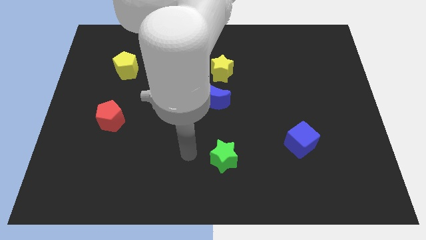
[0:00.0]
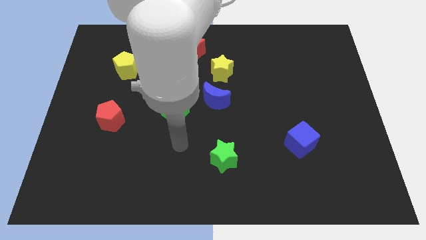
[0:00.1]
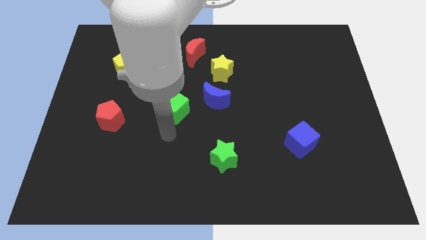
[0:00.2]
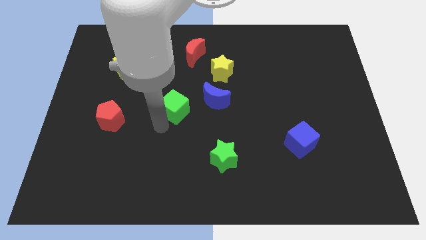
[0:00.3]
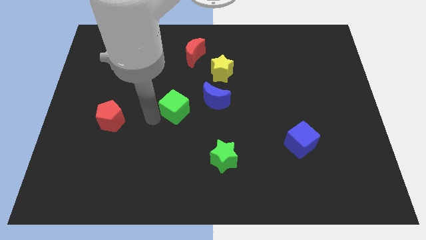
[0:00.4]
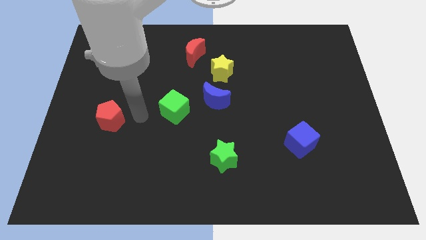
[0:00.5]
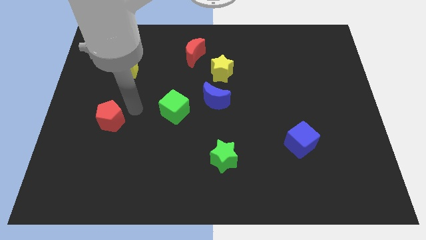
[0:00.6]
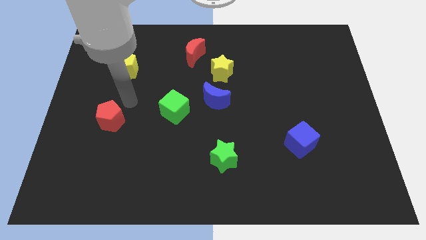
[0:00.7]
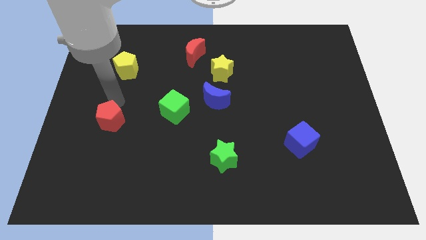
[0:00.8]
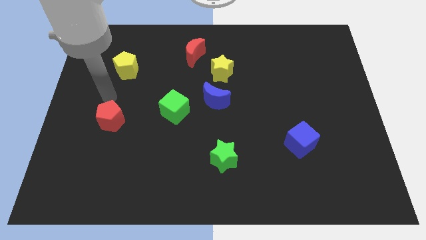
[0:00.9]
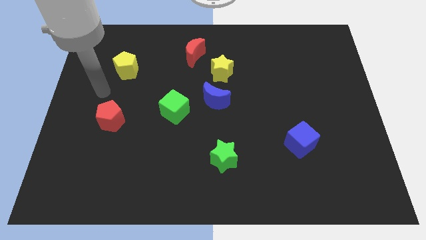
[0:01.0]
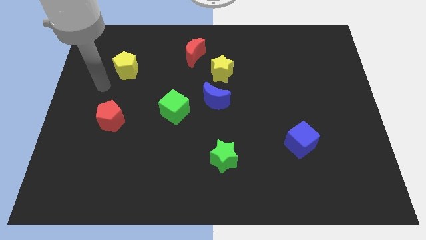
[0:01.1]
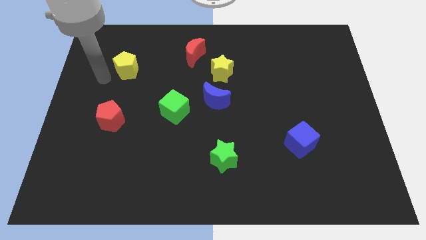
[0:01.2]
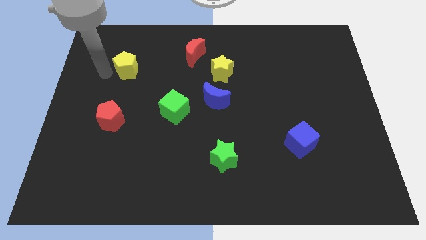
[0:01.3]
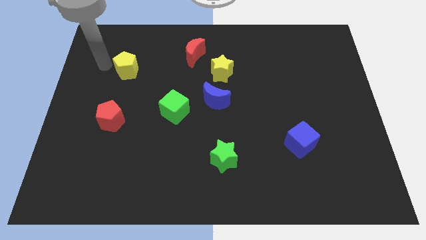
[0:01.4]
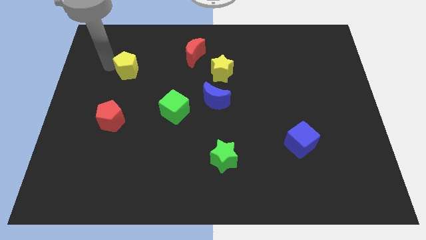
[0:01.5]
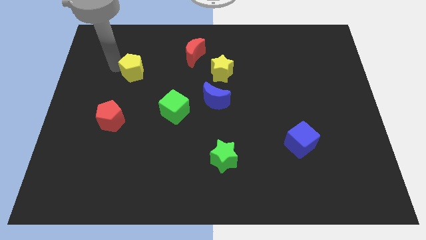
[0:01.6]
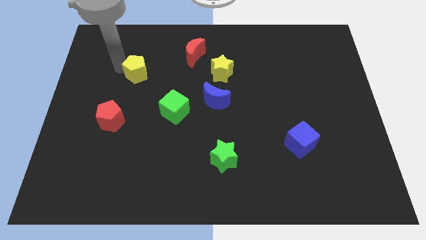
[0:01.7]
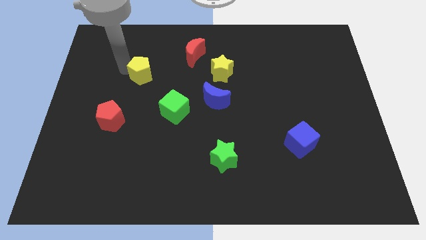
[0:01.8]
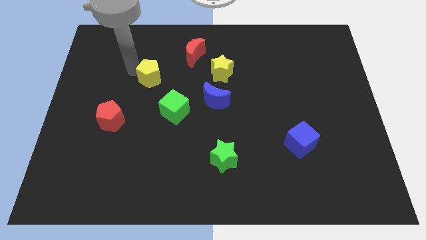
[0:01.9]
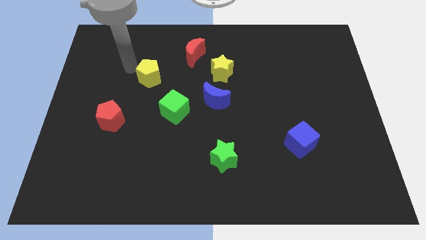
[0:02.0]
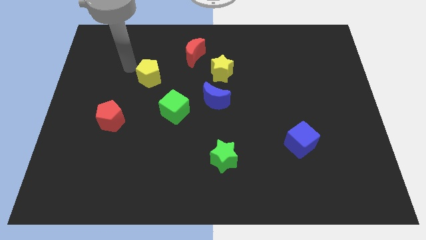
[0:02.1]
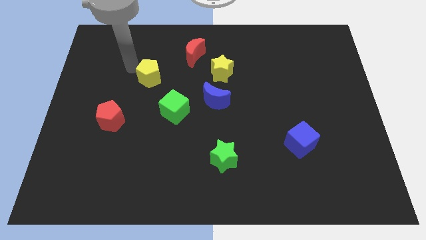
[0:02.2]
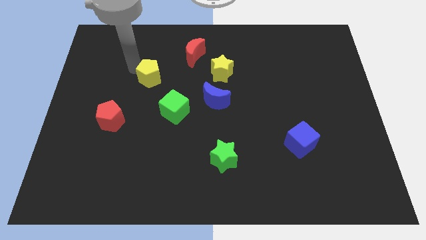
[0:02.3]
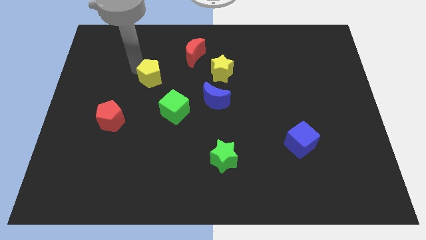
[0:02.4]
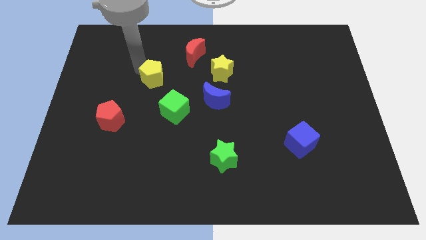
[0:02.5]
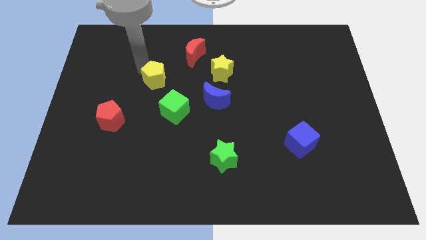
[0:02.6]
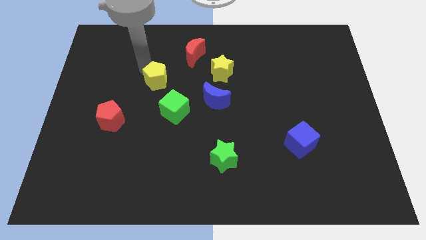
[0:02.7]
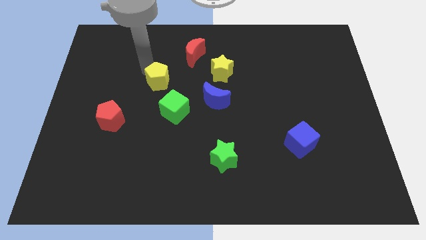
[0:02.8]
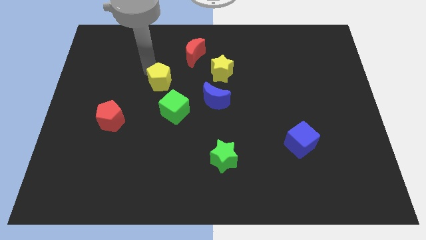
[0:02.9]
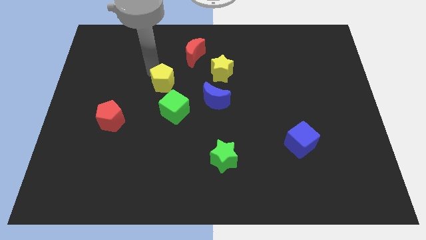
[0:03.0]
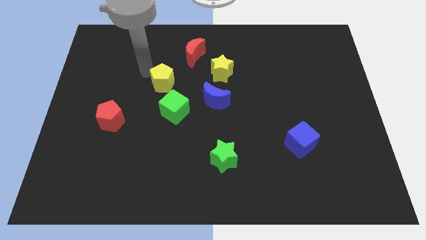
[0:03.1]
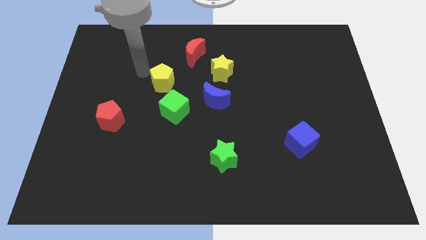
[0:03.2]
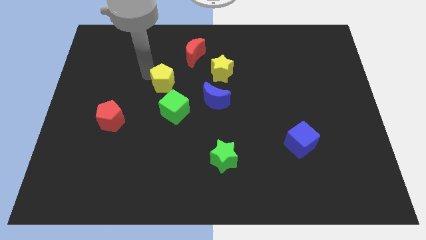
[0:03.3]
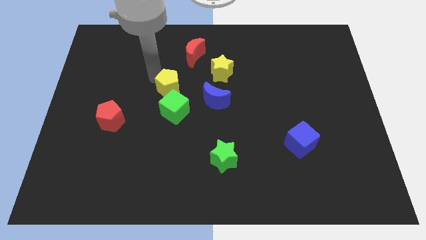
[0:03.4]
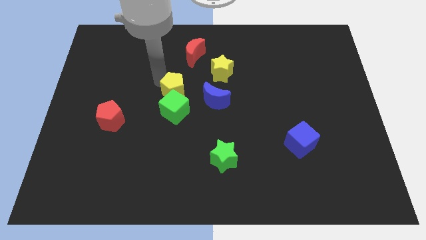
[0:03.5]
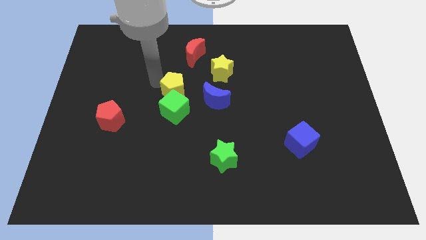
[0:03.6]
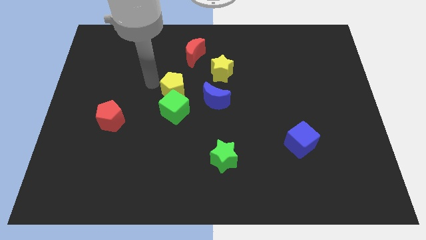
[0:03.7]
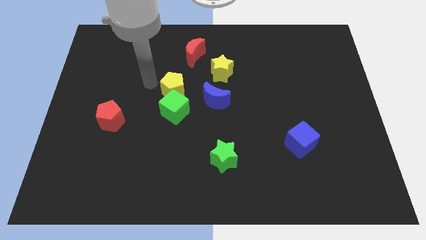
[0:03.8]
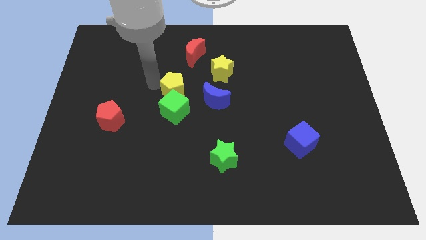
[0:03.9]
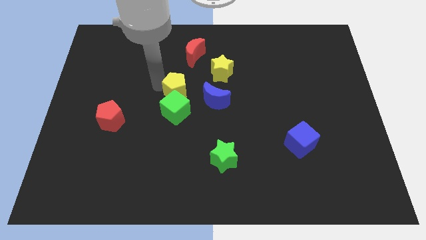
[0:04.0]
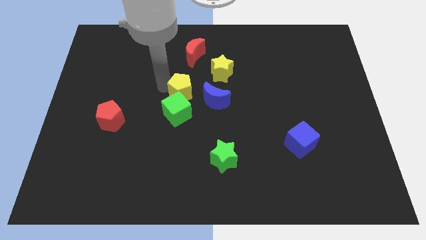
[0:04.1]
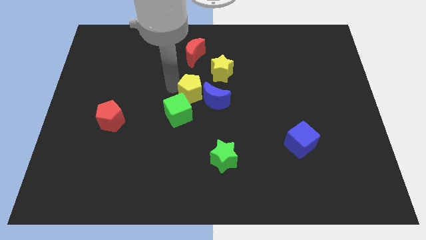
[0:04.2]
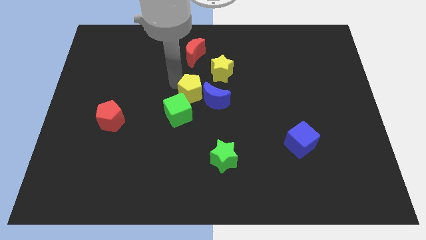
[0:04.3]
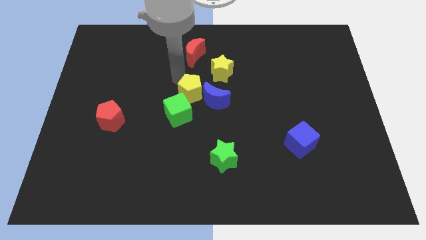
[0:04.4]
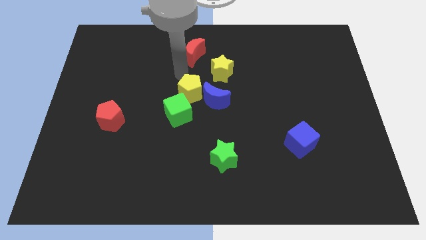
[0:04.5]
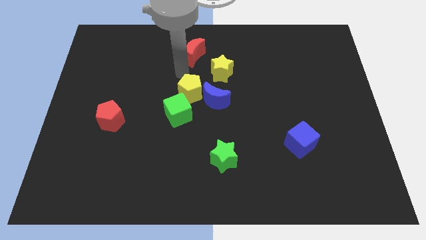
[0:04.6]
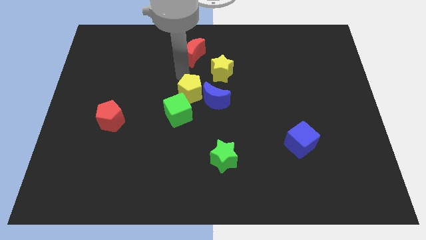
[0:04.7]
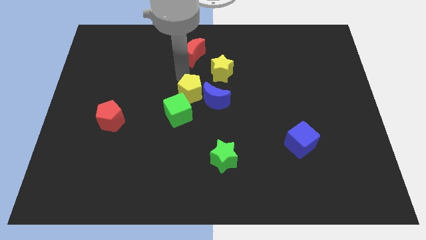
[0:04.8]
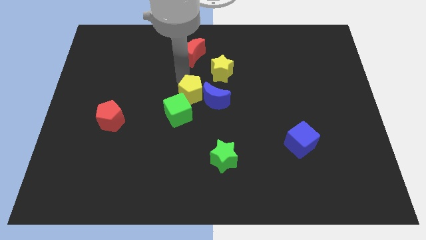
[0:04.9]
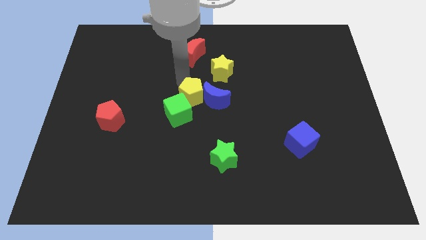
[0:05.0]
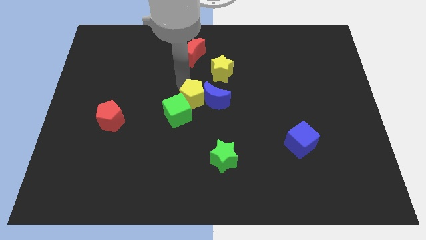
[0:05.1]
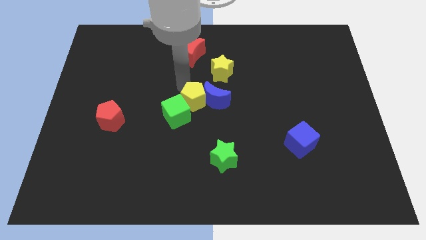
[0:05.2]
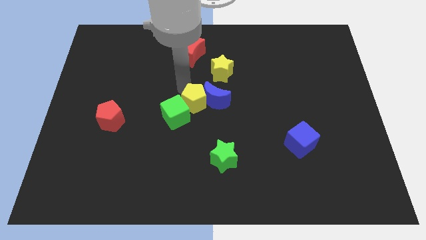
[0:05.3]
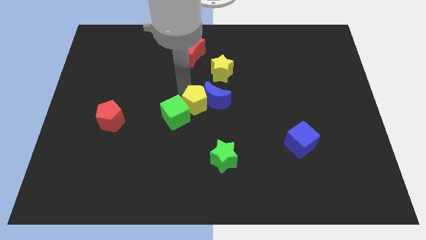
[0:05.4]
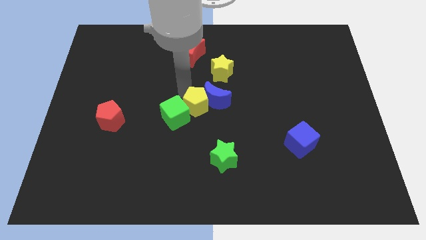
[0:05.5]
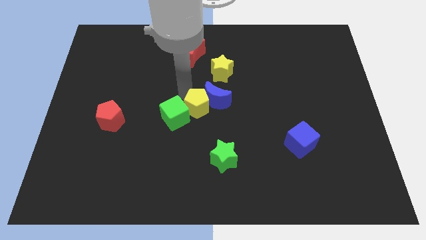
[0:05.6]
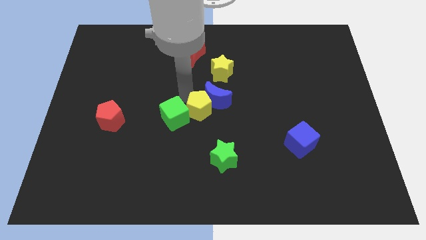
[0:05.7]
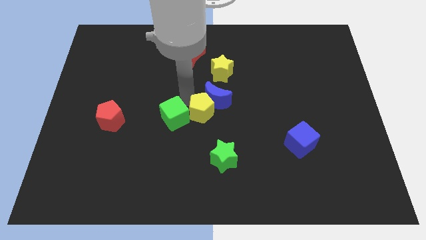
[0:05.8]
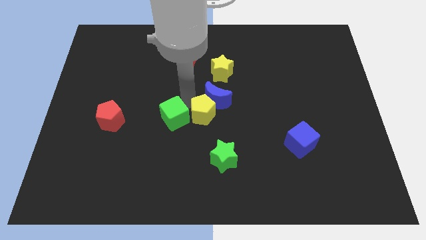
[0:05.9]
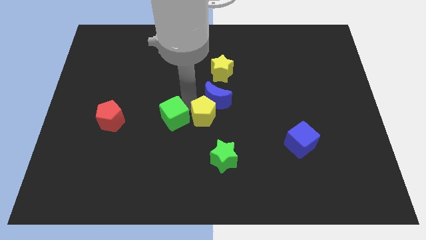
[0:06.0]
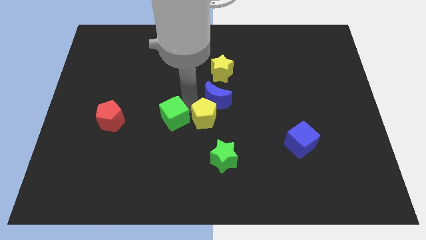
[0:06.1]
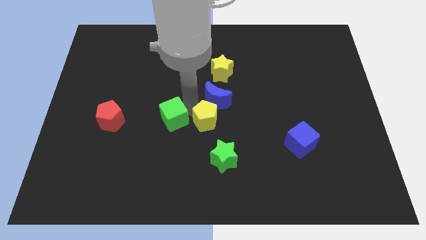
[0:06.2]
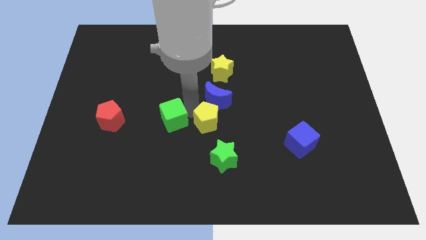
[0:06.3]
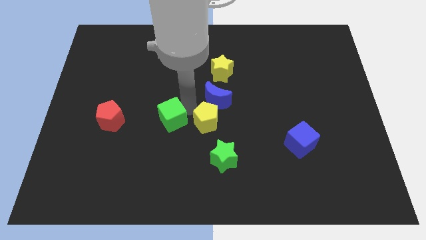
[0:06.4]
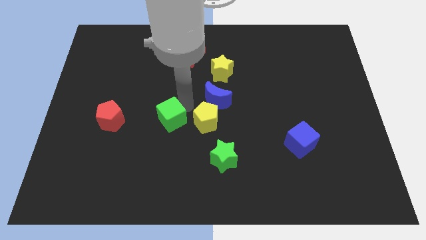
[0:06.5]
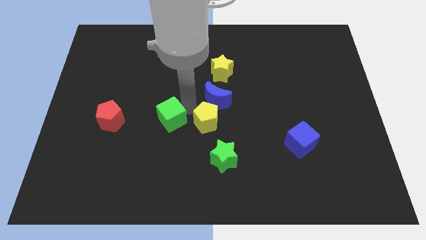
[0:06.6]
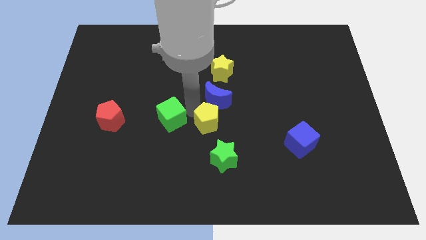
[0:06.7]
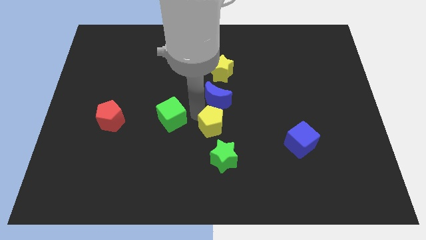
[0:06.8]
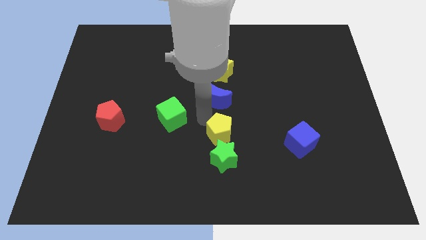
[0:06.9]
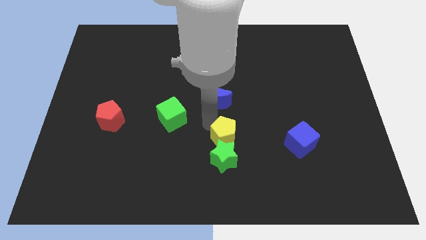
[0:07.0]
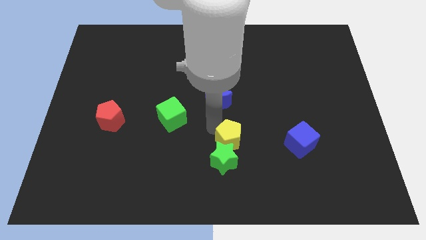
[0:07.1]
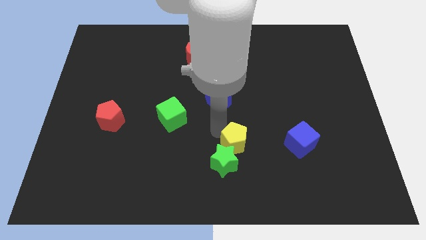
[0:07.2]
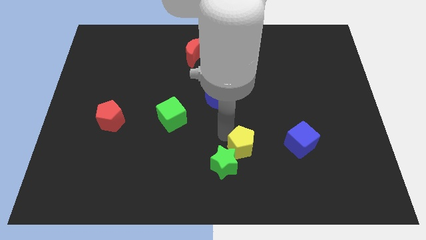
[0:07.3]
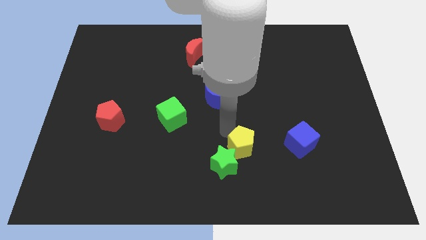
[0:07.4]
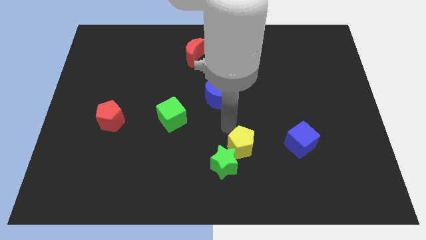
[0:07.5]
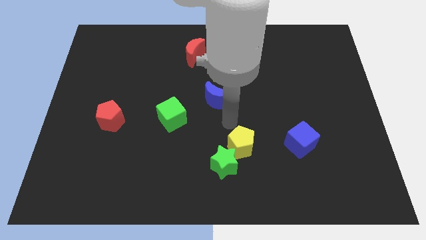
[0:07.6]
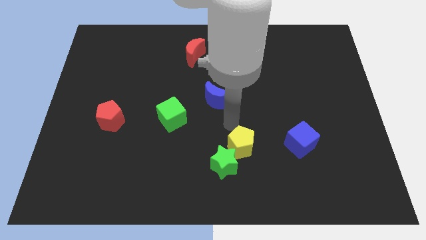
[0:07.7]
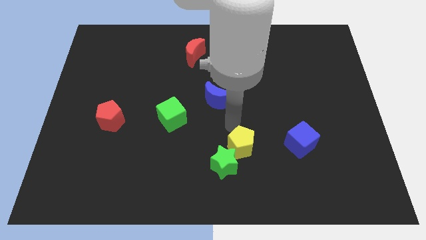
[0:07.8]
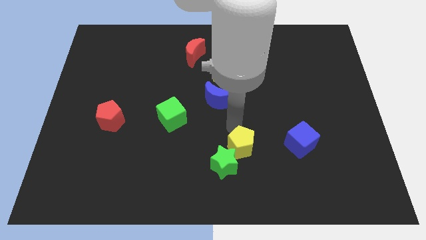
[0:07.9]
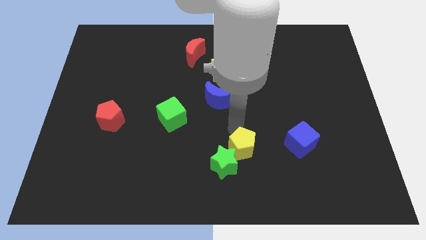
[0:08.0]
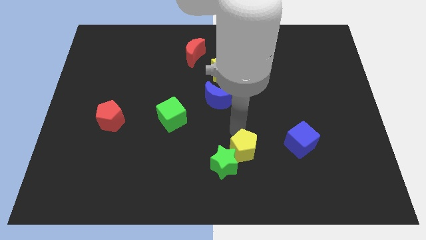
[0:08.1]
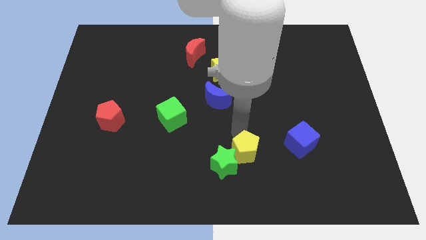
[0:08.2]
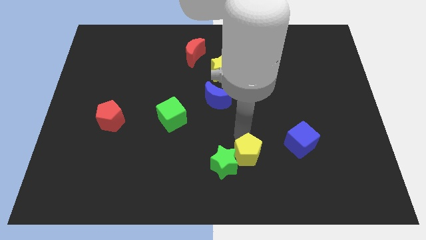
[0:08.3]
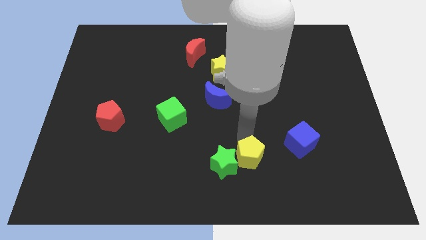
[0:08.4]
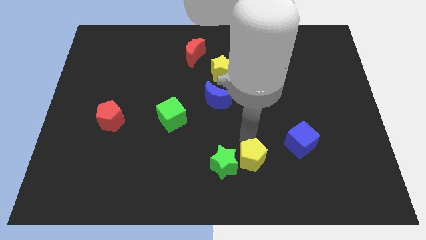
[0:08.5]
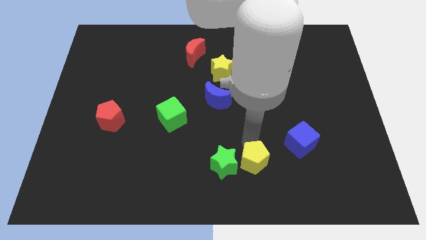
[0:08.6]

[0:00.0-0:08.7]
slide the yellow pentagon to the bottom right of the green star
